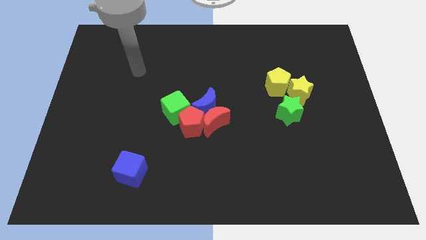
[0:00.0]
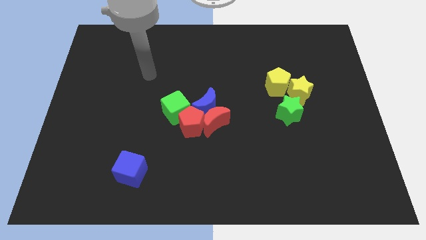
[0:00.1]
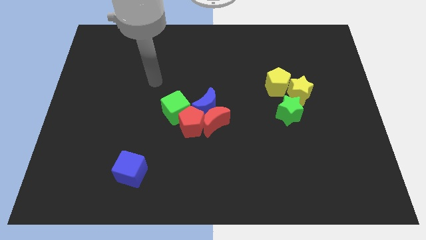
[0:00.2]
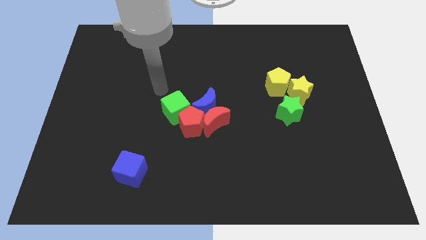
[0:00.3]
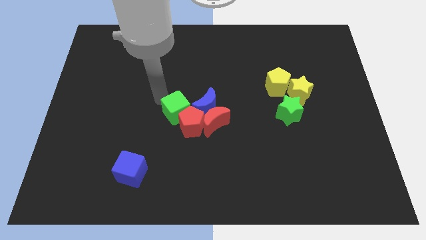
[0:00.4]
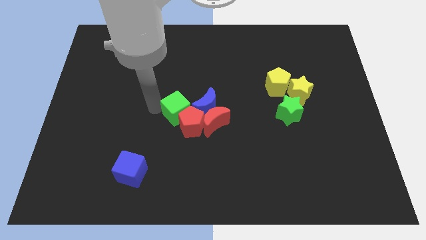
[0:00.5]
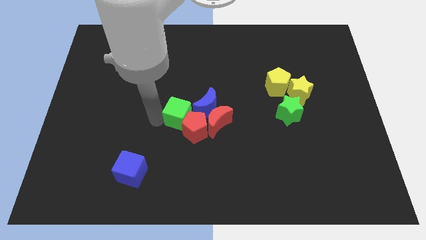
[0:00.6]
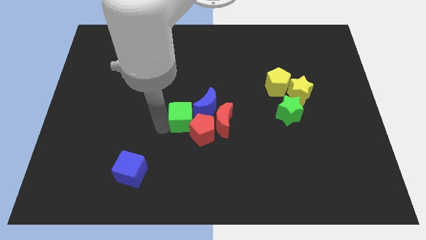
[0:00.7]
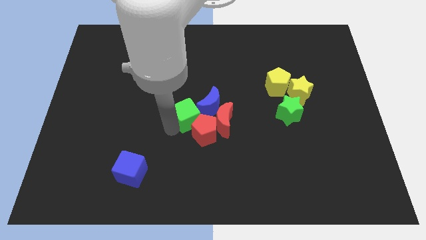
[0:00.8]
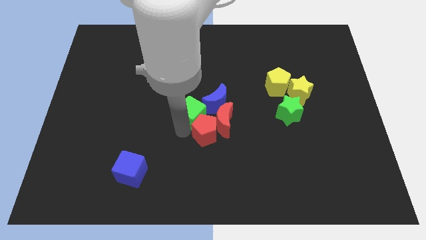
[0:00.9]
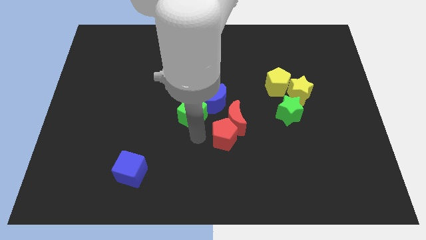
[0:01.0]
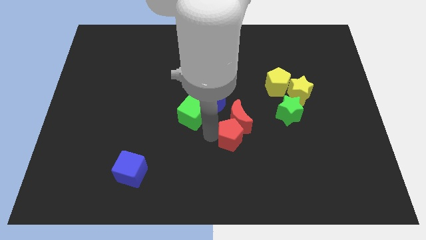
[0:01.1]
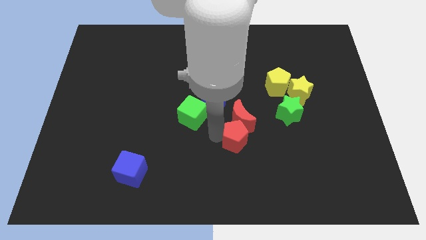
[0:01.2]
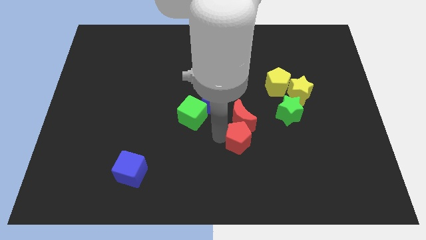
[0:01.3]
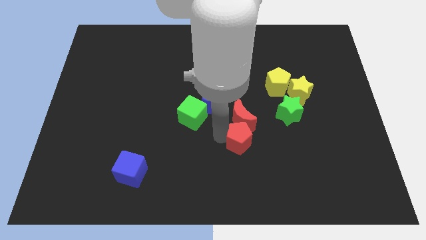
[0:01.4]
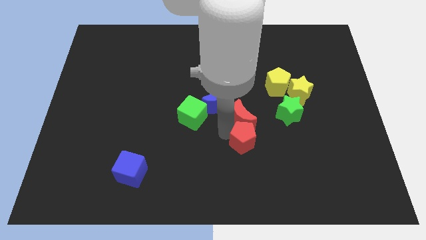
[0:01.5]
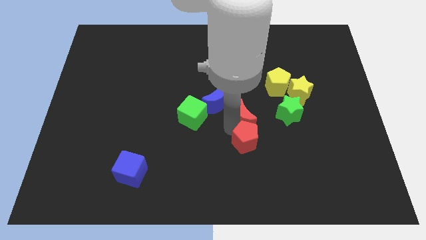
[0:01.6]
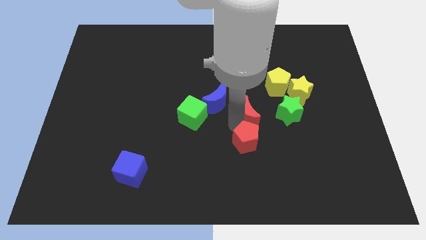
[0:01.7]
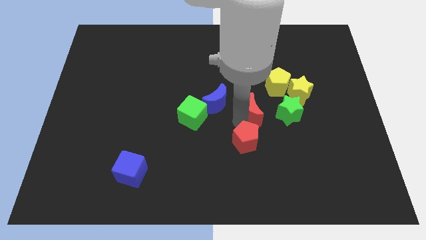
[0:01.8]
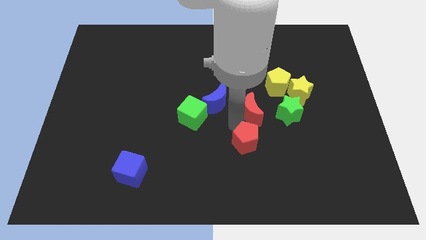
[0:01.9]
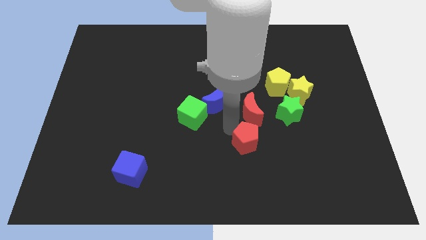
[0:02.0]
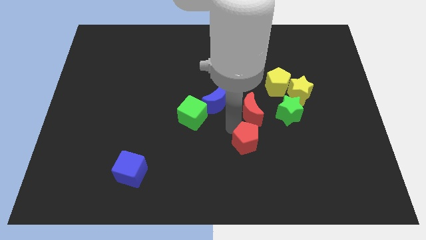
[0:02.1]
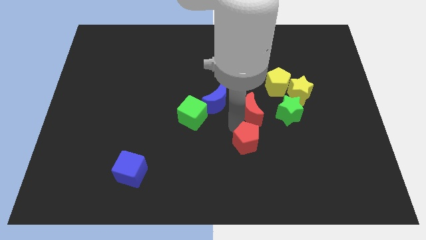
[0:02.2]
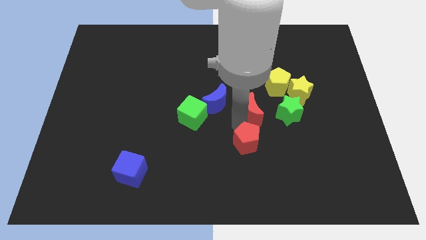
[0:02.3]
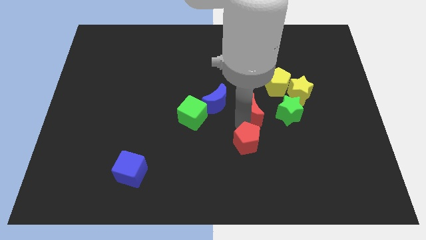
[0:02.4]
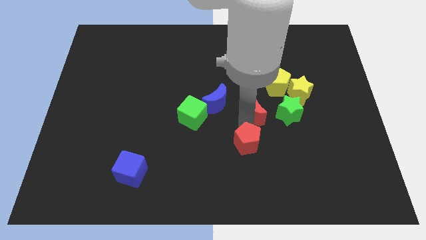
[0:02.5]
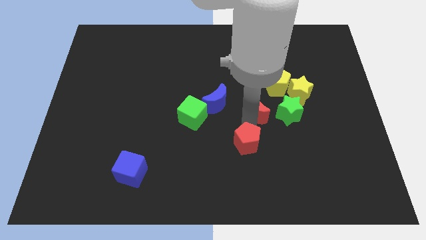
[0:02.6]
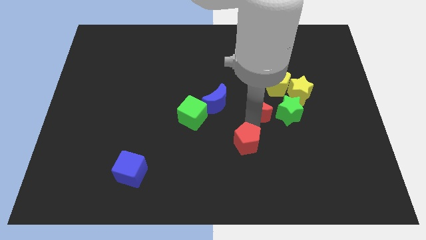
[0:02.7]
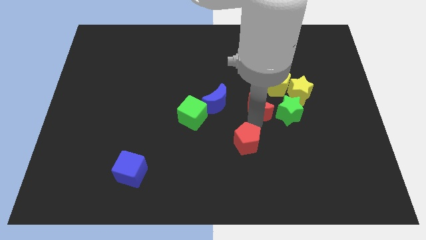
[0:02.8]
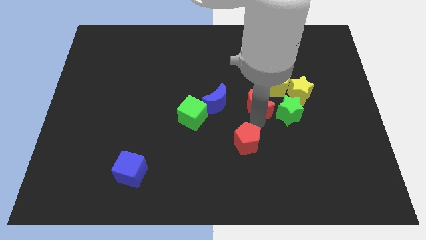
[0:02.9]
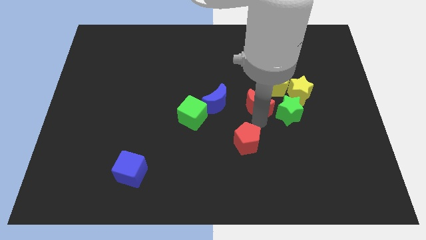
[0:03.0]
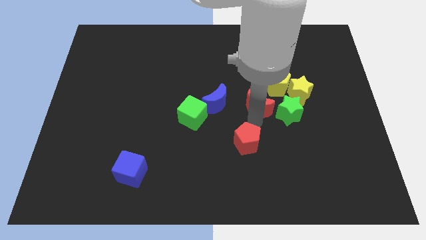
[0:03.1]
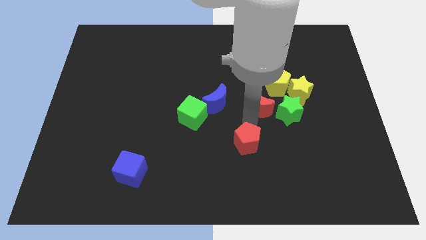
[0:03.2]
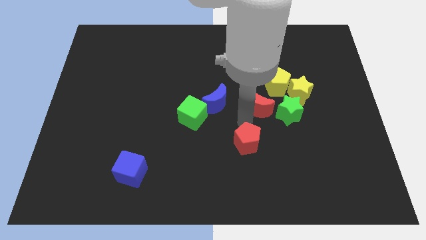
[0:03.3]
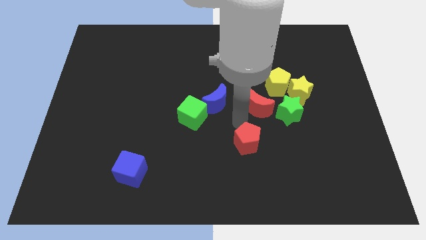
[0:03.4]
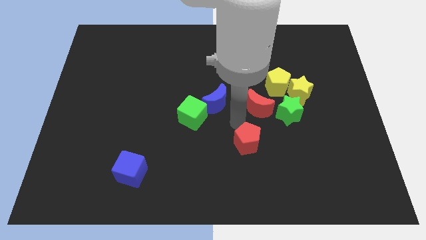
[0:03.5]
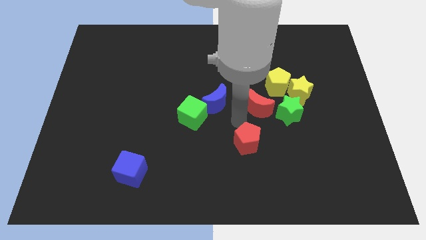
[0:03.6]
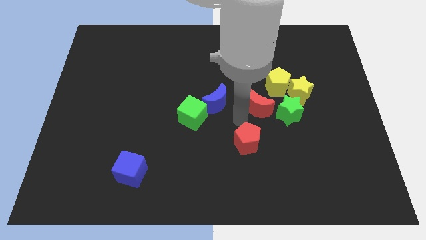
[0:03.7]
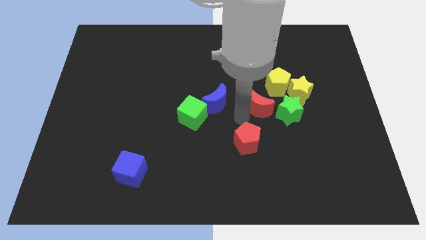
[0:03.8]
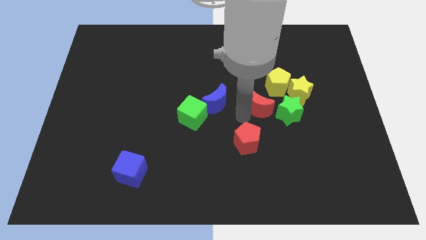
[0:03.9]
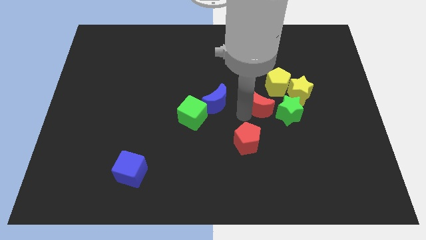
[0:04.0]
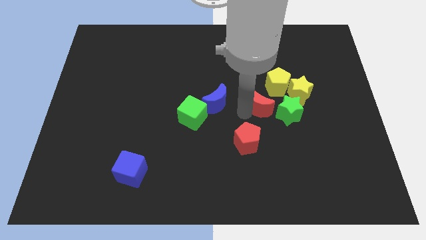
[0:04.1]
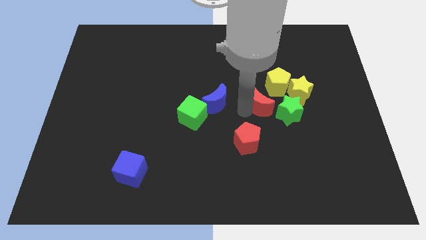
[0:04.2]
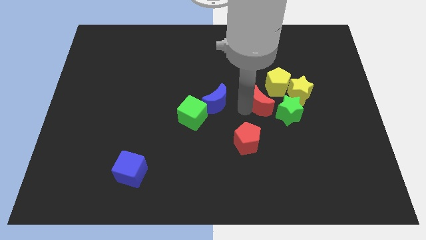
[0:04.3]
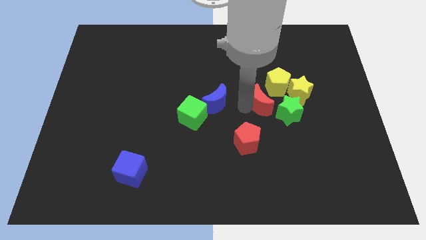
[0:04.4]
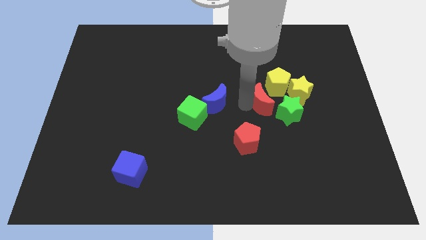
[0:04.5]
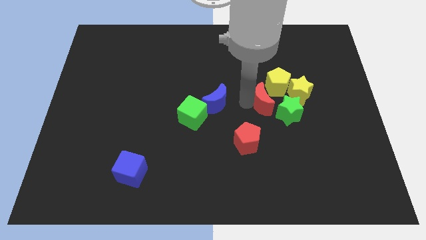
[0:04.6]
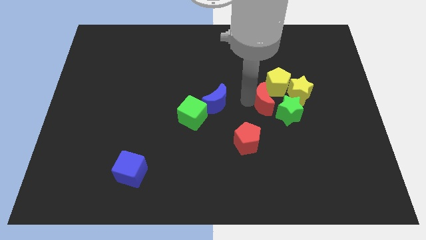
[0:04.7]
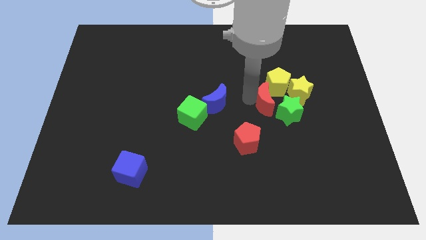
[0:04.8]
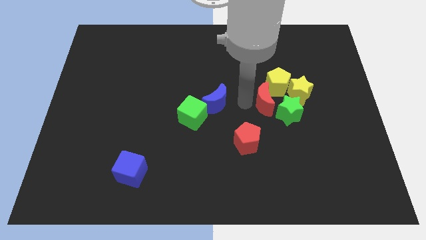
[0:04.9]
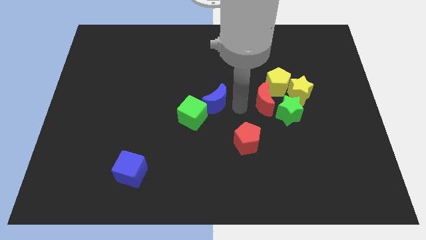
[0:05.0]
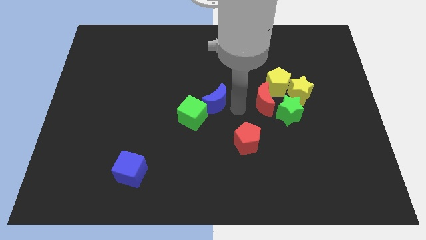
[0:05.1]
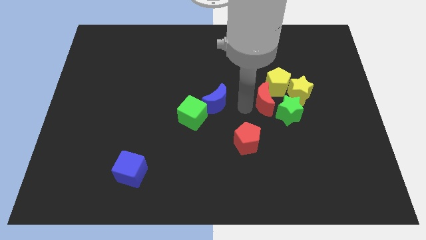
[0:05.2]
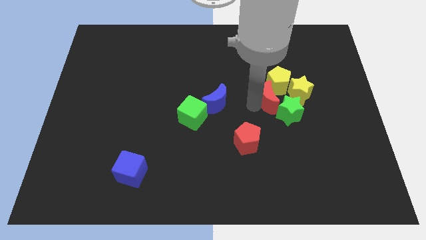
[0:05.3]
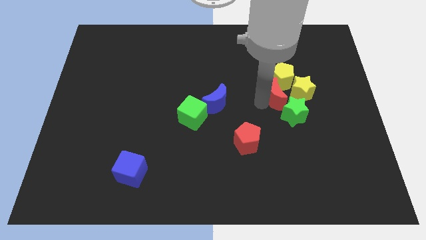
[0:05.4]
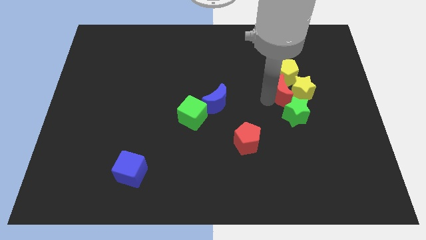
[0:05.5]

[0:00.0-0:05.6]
push the red moon towards the yellow star

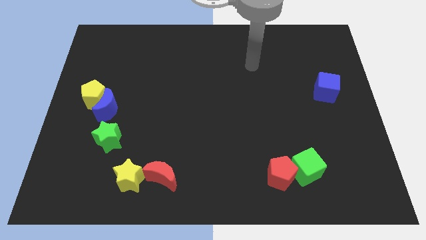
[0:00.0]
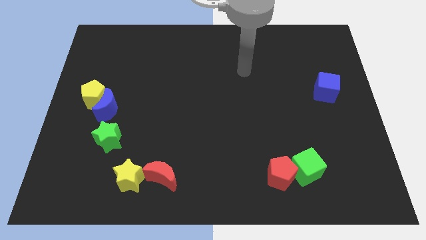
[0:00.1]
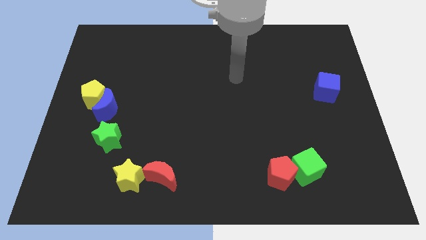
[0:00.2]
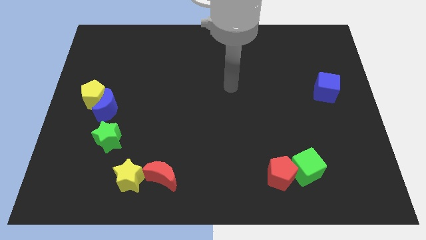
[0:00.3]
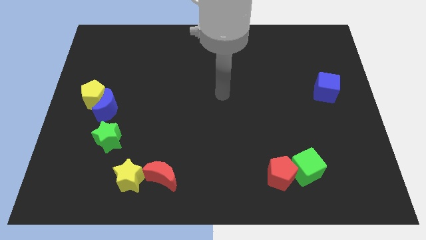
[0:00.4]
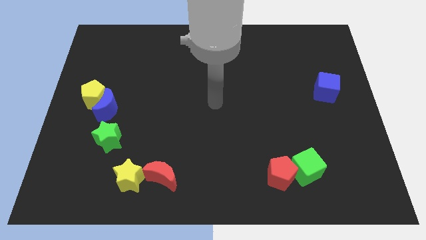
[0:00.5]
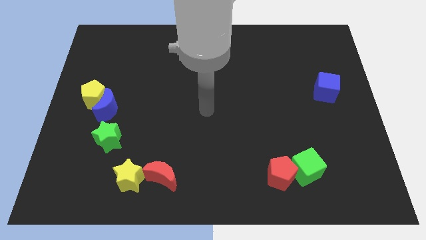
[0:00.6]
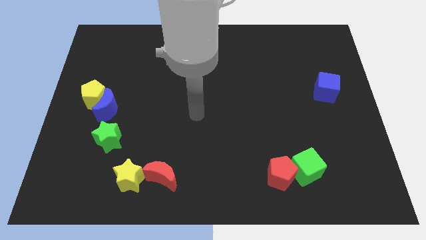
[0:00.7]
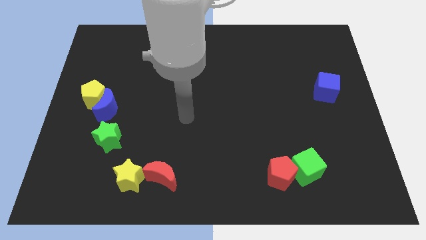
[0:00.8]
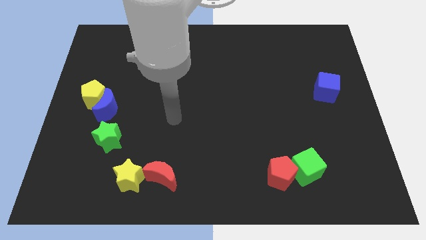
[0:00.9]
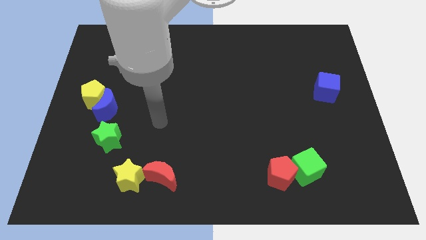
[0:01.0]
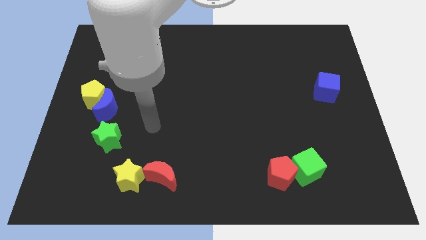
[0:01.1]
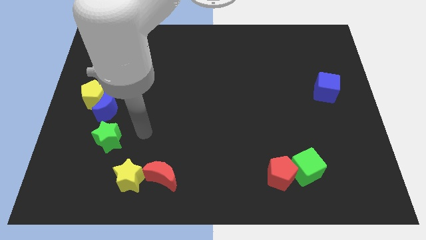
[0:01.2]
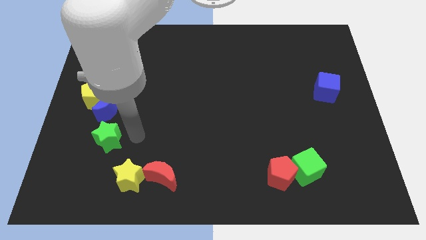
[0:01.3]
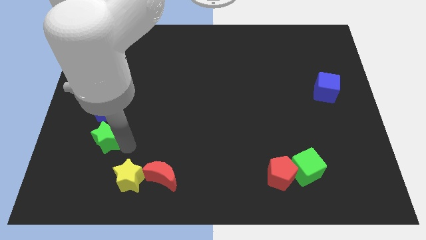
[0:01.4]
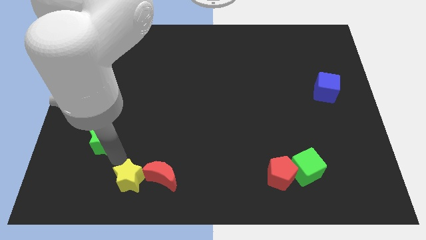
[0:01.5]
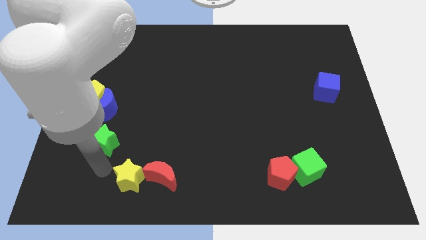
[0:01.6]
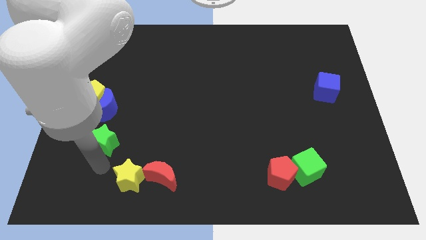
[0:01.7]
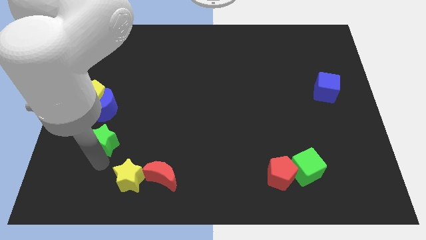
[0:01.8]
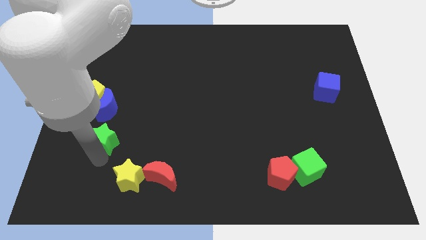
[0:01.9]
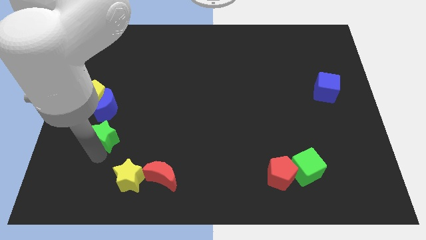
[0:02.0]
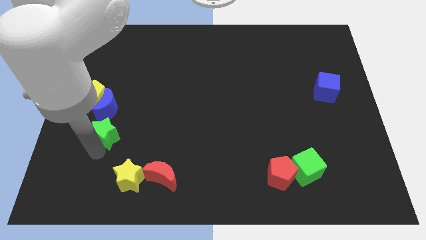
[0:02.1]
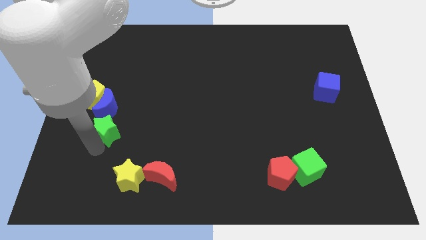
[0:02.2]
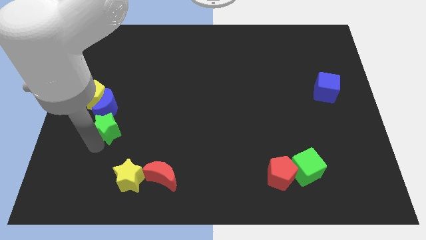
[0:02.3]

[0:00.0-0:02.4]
move the green star close to the blue moon
